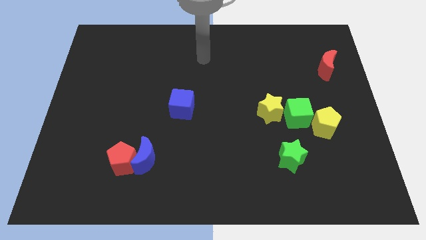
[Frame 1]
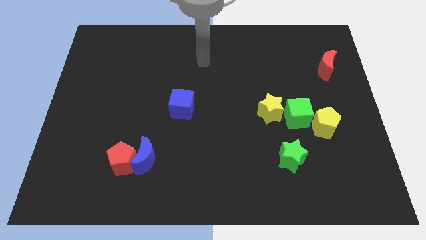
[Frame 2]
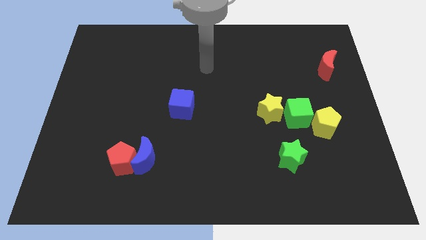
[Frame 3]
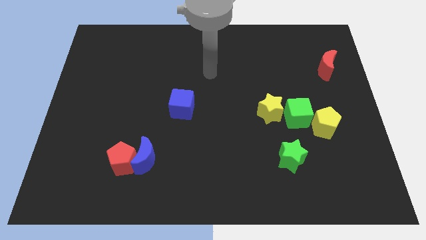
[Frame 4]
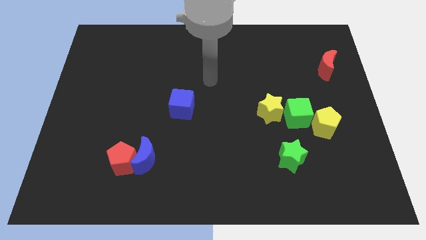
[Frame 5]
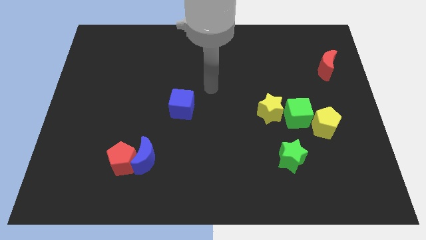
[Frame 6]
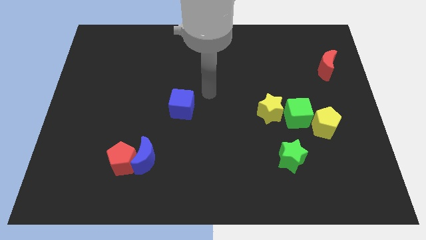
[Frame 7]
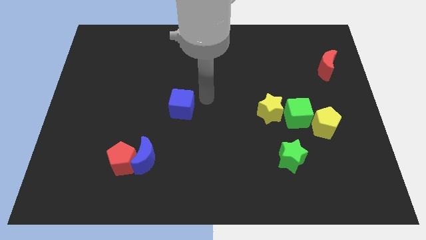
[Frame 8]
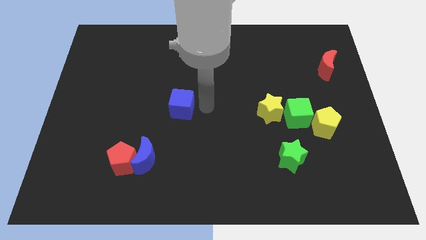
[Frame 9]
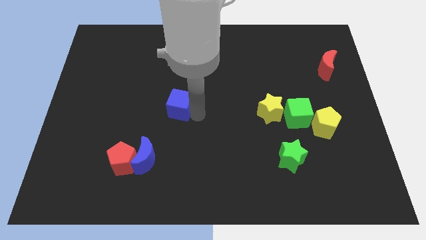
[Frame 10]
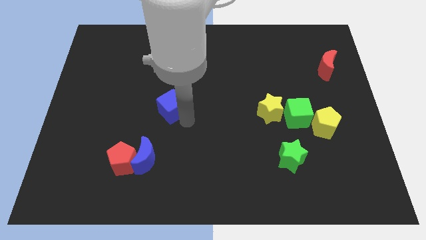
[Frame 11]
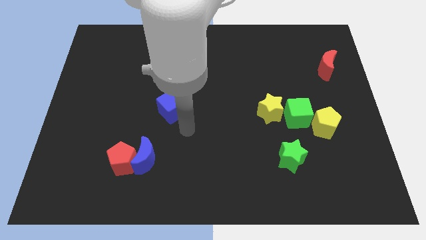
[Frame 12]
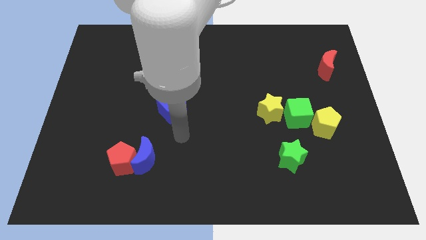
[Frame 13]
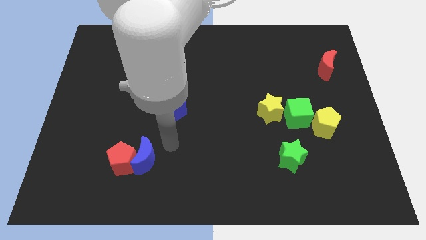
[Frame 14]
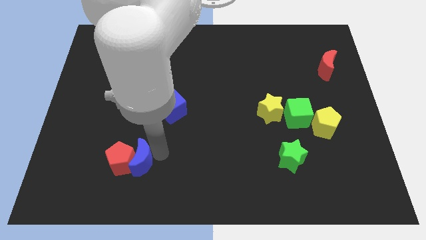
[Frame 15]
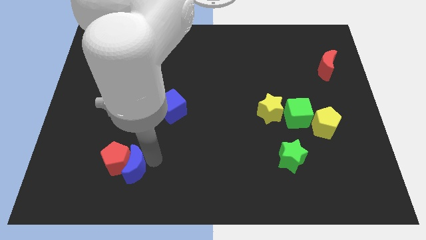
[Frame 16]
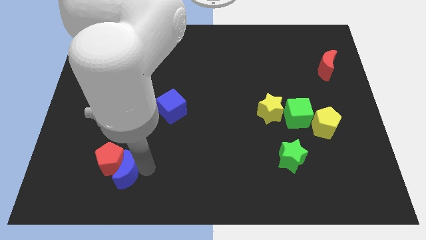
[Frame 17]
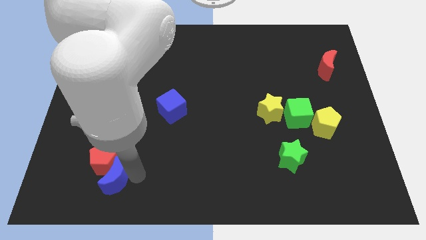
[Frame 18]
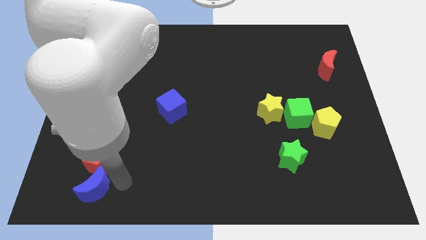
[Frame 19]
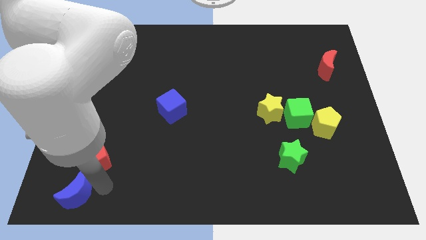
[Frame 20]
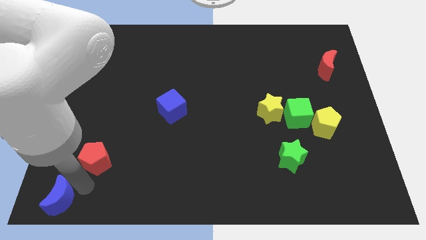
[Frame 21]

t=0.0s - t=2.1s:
pull the red pentagon apart from the blue moon

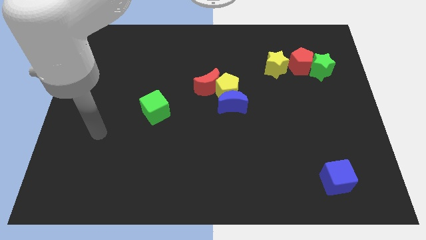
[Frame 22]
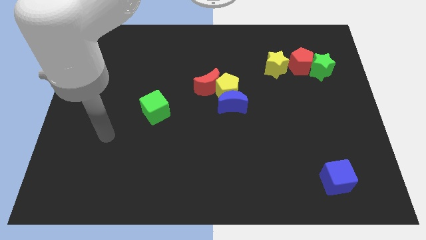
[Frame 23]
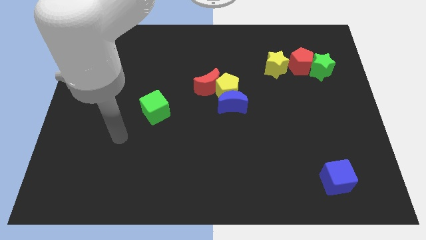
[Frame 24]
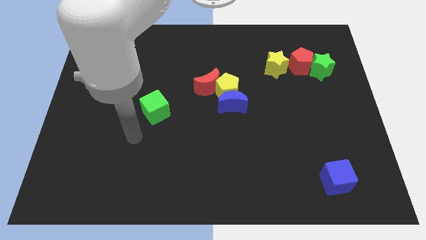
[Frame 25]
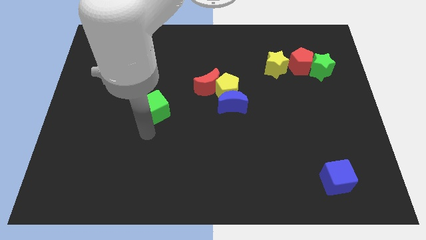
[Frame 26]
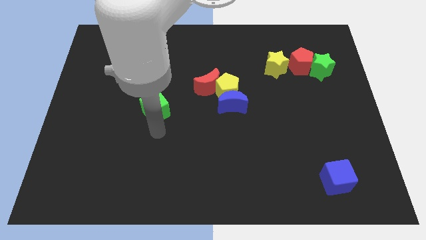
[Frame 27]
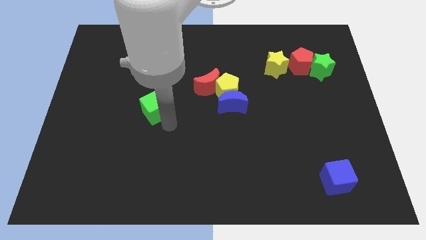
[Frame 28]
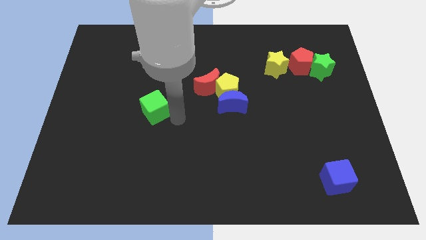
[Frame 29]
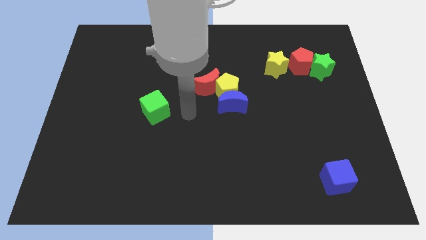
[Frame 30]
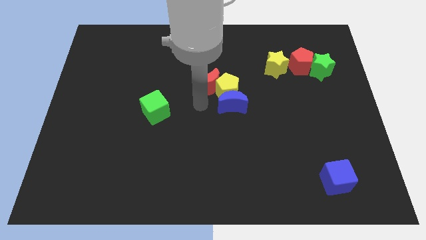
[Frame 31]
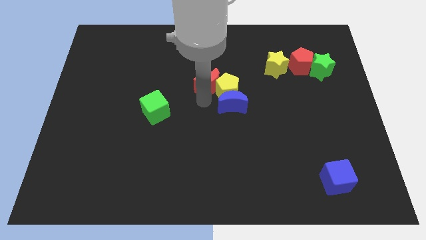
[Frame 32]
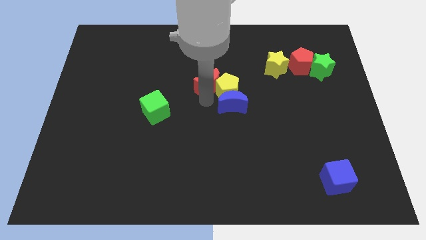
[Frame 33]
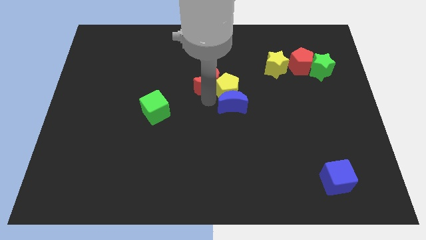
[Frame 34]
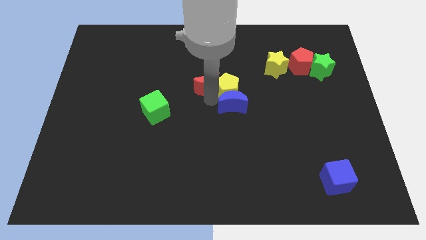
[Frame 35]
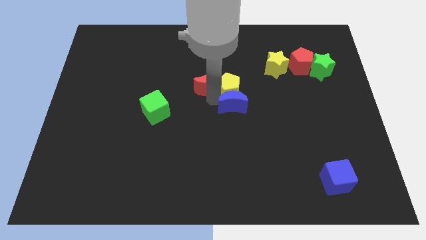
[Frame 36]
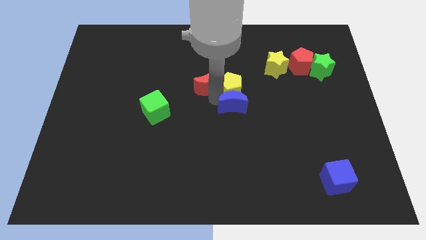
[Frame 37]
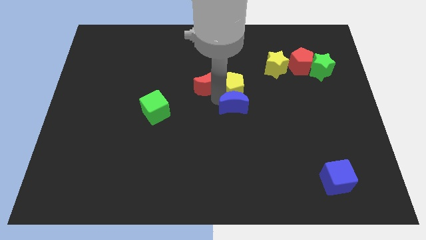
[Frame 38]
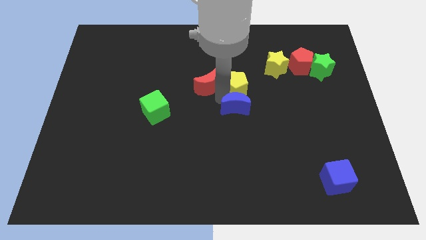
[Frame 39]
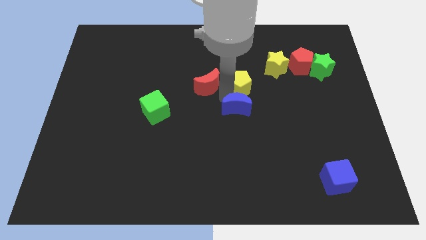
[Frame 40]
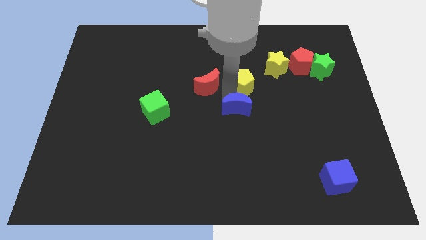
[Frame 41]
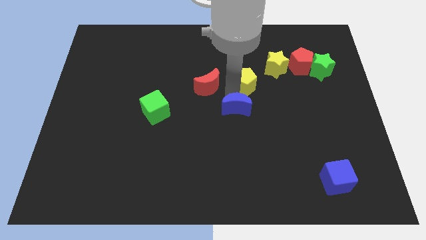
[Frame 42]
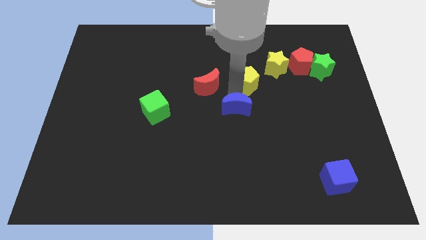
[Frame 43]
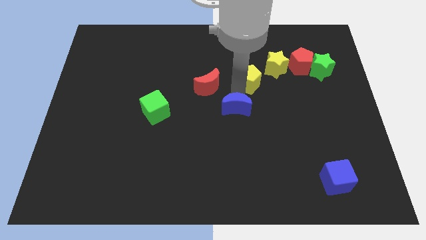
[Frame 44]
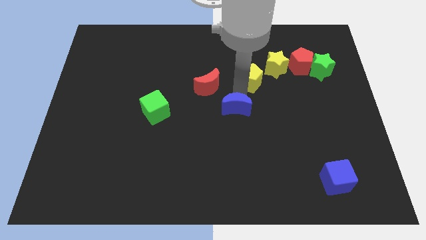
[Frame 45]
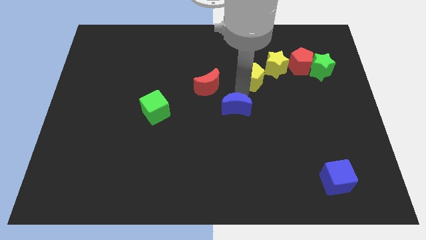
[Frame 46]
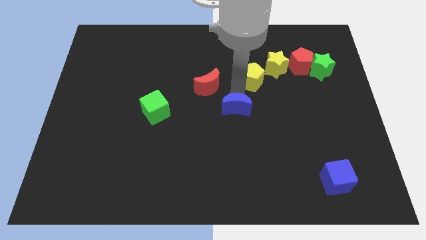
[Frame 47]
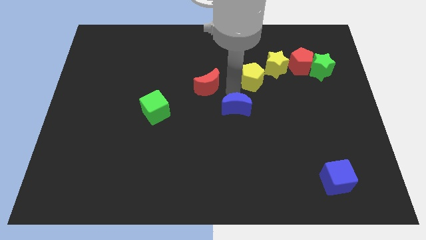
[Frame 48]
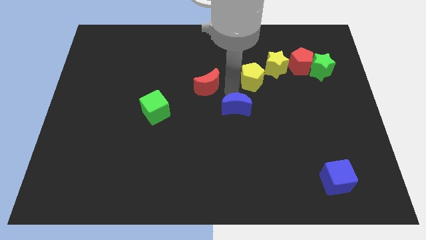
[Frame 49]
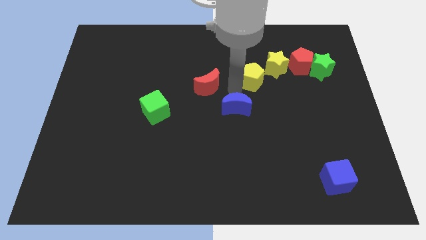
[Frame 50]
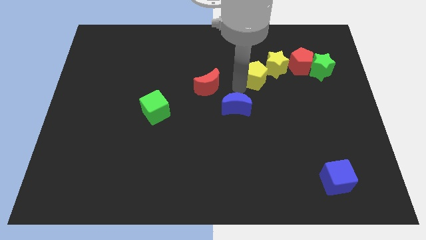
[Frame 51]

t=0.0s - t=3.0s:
pull the yellow pentagon apart from the blue moon and red moon

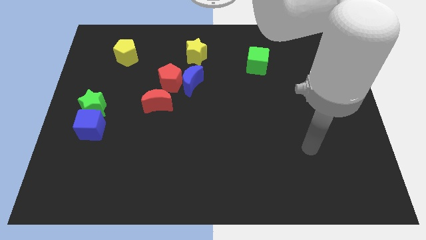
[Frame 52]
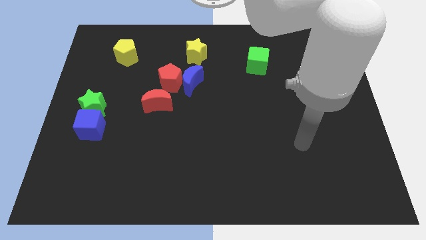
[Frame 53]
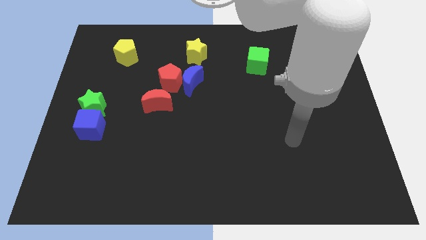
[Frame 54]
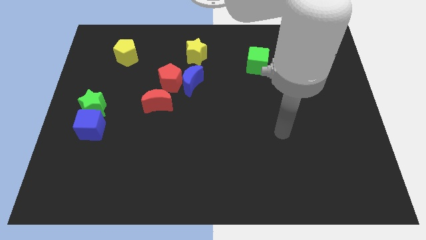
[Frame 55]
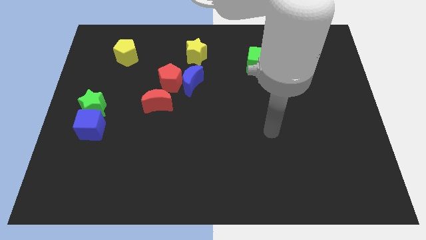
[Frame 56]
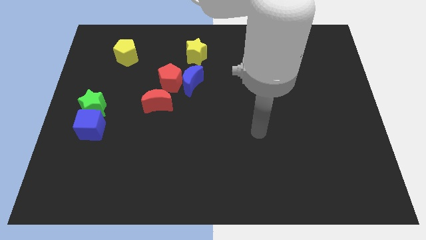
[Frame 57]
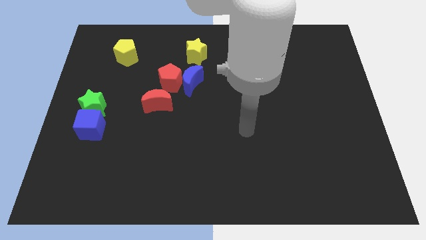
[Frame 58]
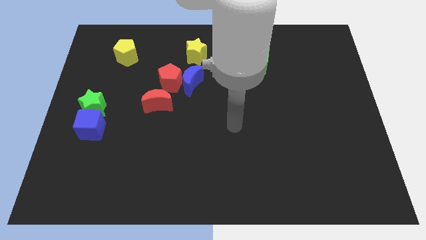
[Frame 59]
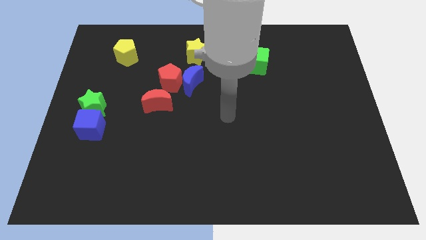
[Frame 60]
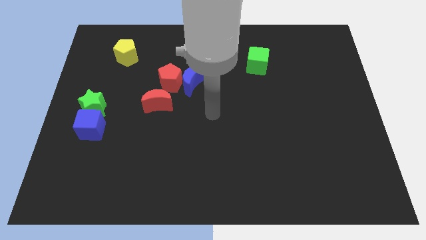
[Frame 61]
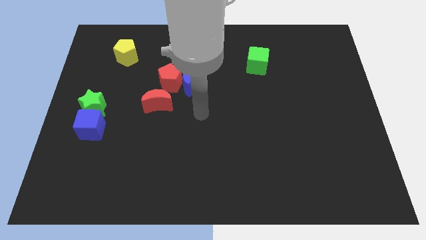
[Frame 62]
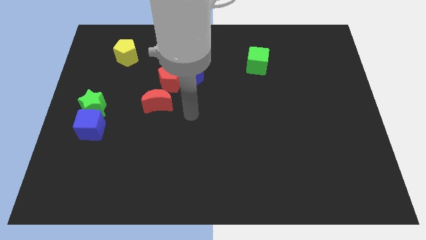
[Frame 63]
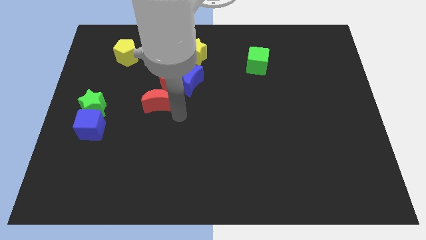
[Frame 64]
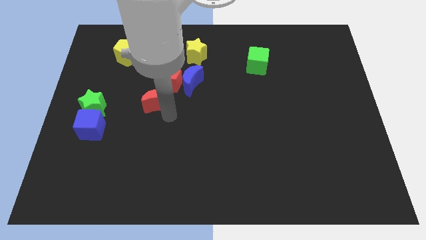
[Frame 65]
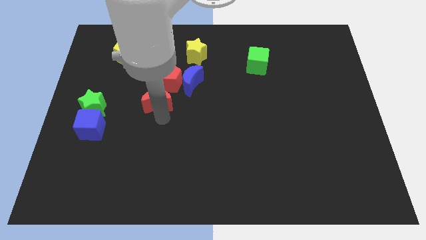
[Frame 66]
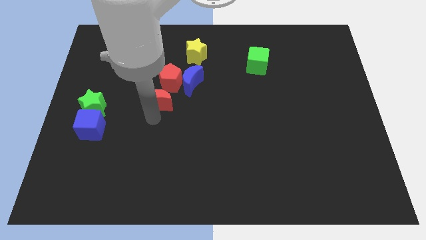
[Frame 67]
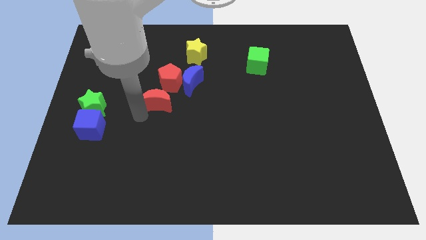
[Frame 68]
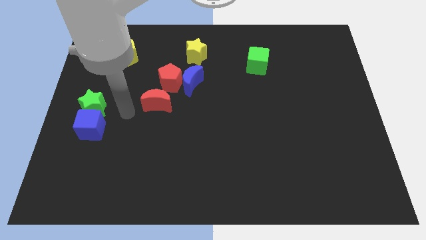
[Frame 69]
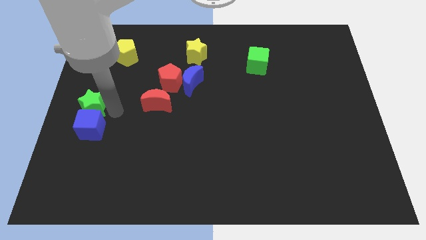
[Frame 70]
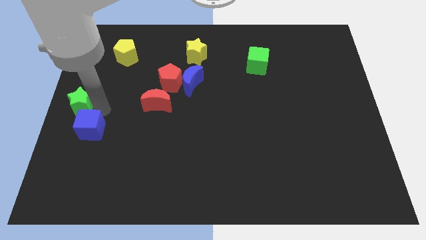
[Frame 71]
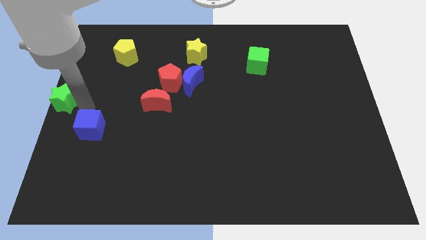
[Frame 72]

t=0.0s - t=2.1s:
pull the blue cube apart from the green star

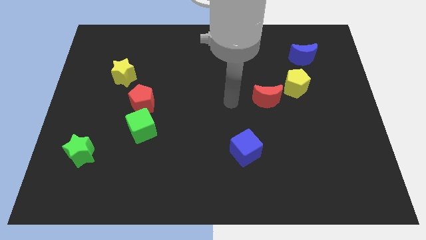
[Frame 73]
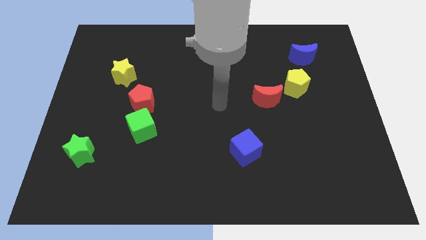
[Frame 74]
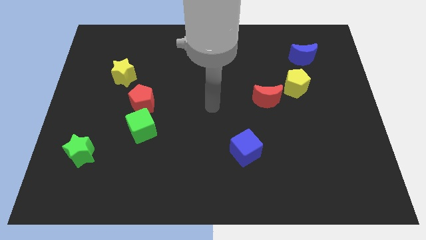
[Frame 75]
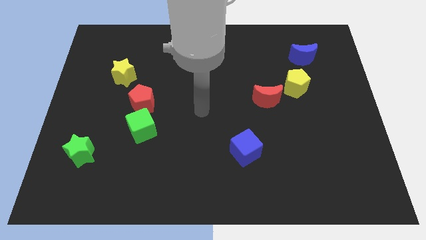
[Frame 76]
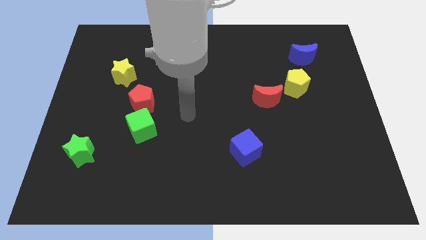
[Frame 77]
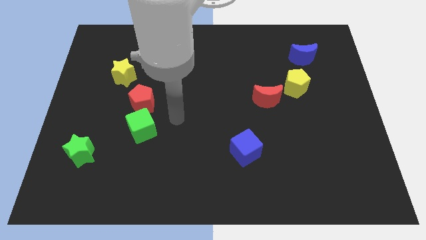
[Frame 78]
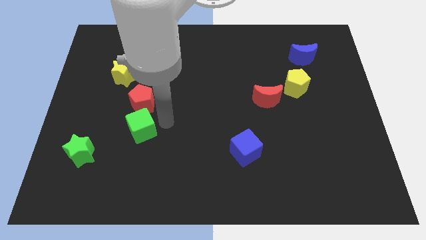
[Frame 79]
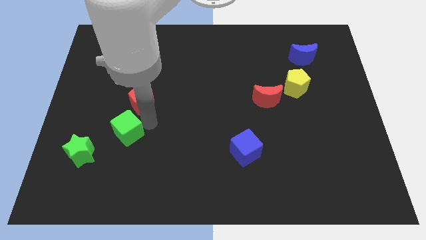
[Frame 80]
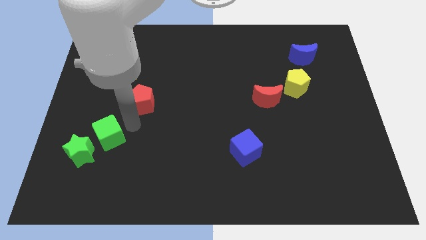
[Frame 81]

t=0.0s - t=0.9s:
move the red pentagon away from the green cube

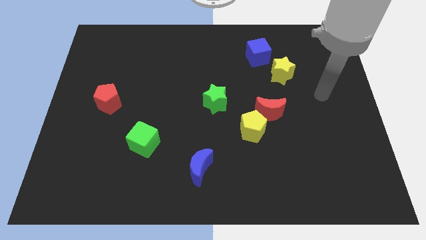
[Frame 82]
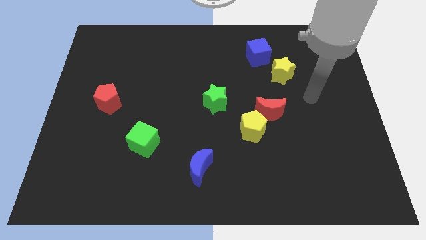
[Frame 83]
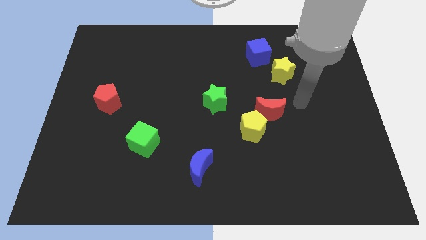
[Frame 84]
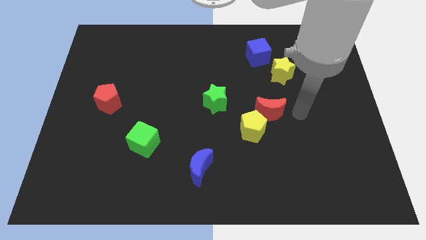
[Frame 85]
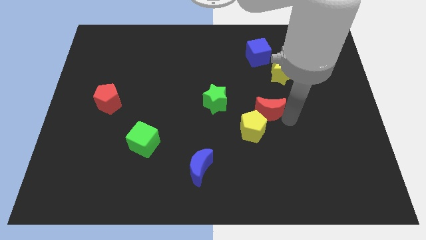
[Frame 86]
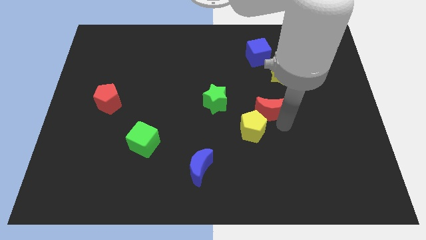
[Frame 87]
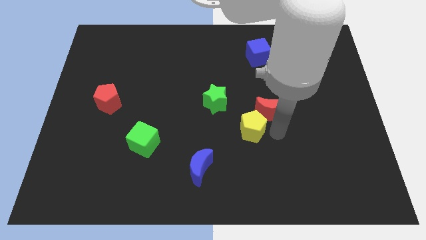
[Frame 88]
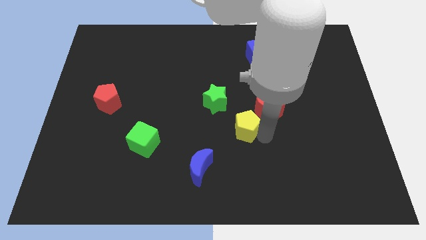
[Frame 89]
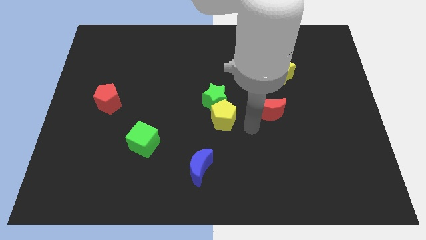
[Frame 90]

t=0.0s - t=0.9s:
move the red moon away from the yellow pentagon

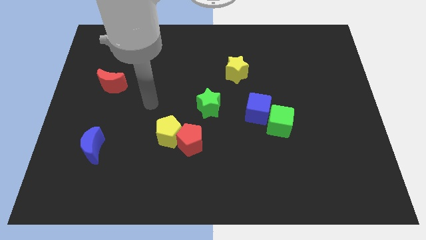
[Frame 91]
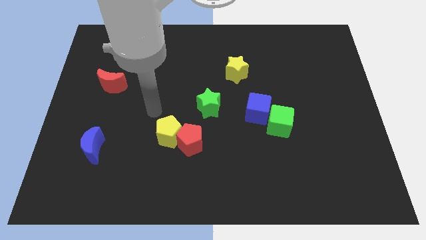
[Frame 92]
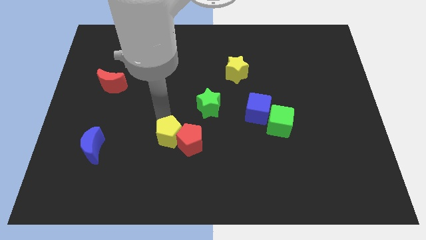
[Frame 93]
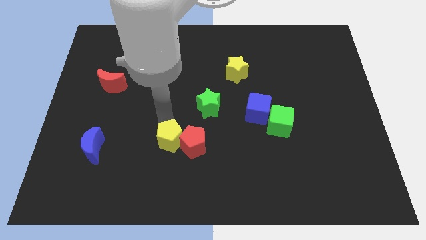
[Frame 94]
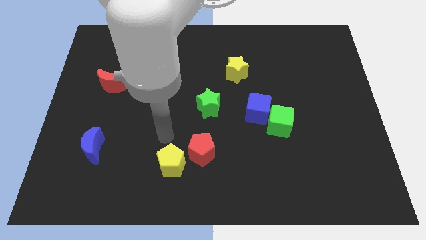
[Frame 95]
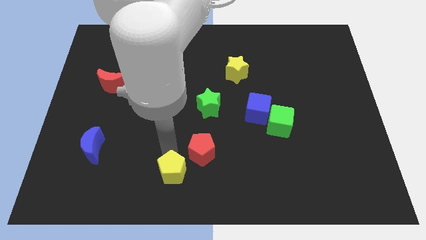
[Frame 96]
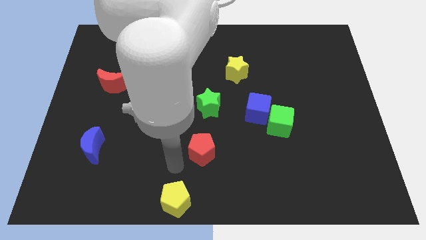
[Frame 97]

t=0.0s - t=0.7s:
separate the red pentagon from the yellow pentagon
